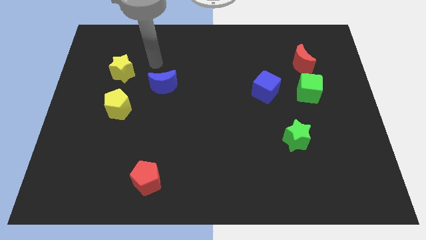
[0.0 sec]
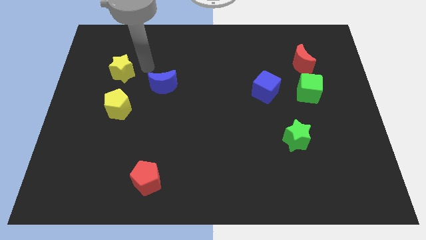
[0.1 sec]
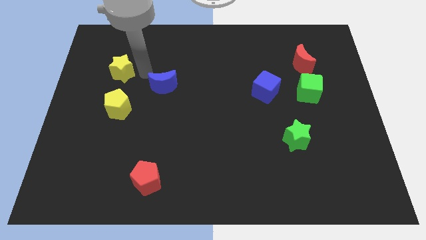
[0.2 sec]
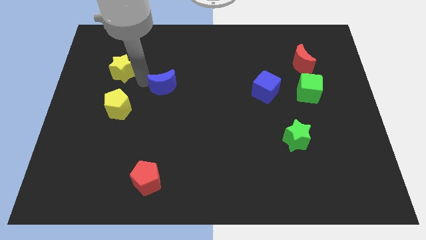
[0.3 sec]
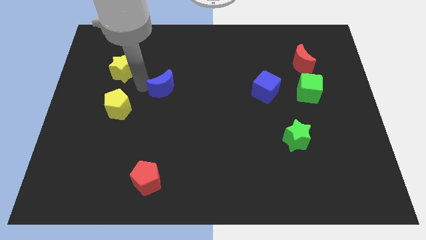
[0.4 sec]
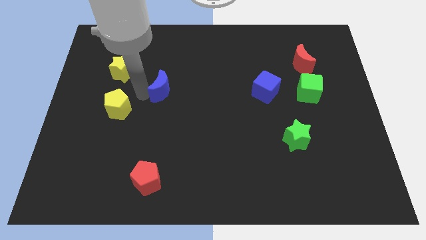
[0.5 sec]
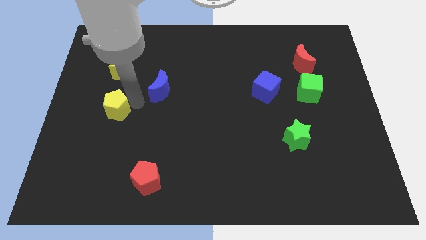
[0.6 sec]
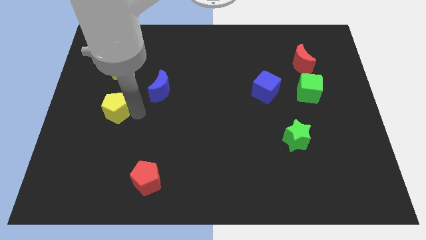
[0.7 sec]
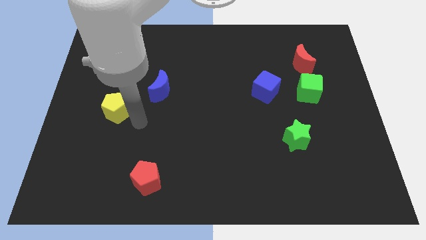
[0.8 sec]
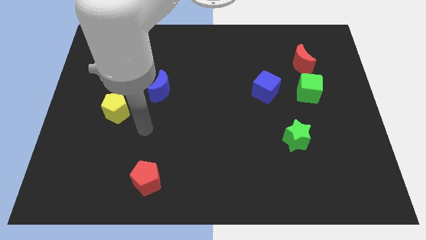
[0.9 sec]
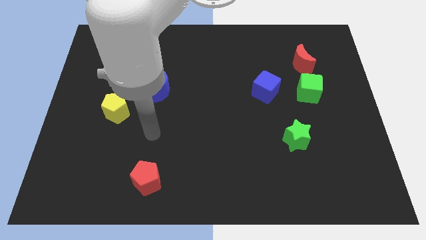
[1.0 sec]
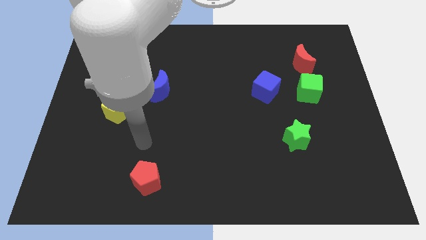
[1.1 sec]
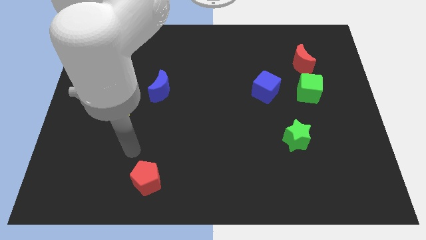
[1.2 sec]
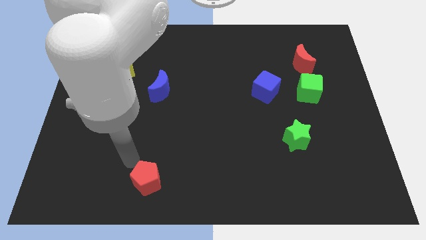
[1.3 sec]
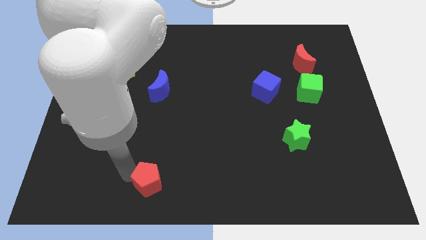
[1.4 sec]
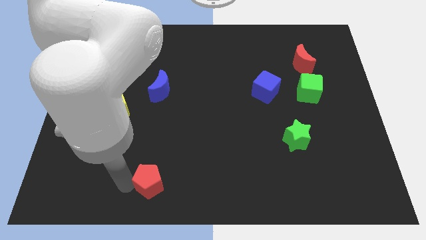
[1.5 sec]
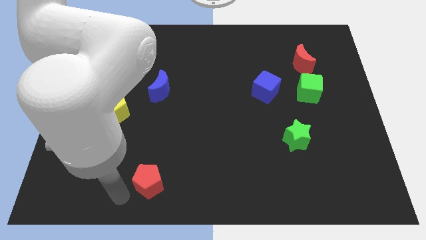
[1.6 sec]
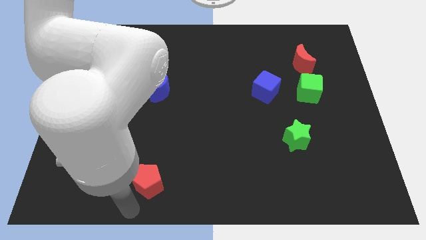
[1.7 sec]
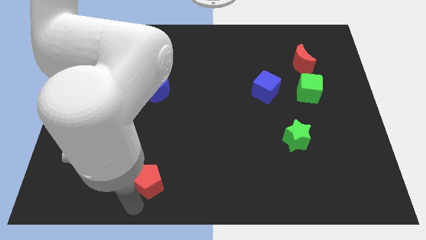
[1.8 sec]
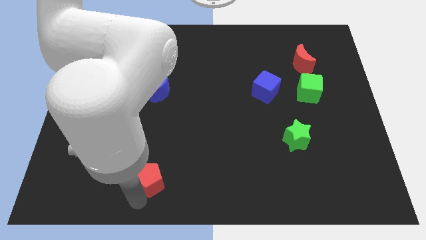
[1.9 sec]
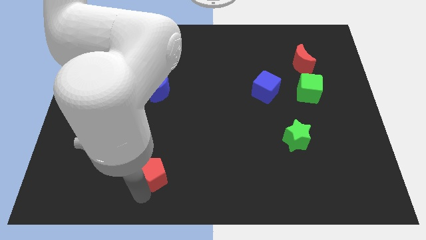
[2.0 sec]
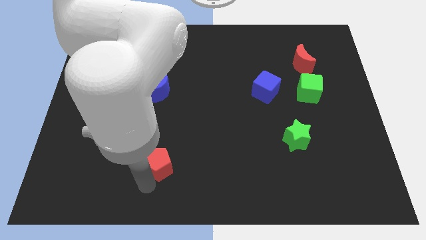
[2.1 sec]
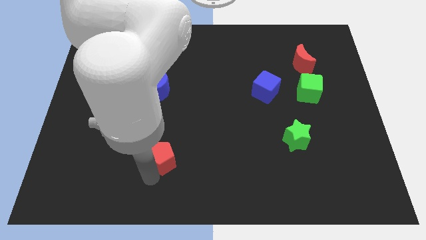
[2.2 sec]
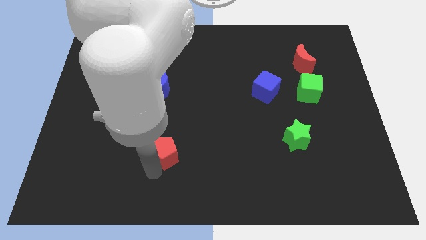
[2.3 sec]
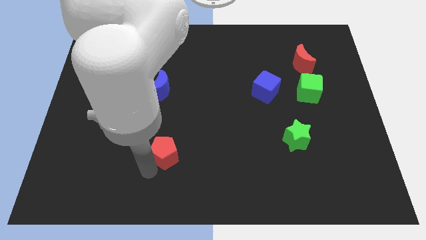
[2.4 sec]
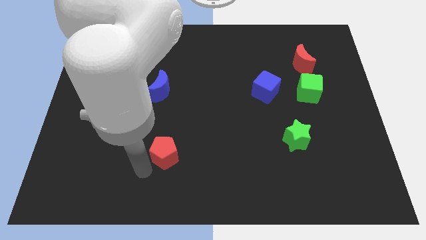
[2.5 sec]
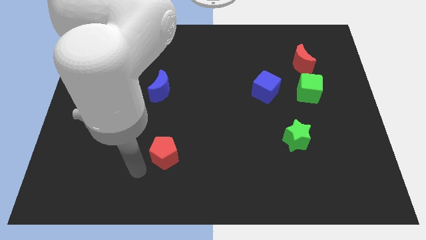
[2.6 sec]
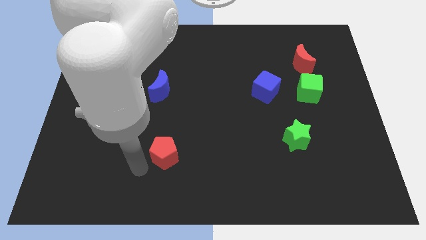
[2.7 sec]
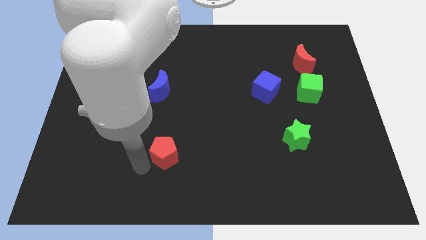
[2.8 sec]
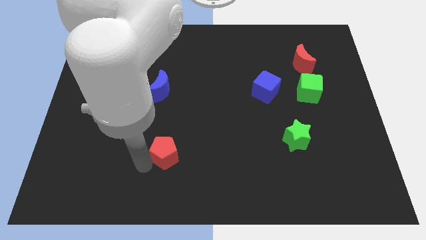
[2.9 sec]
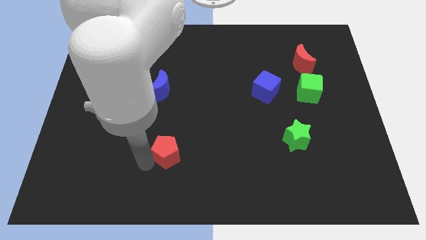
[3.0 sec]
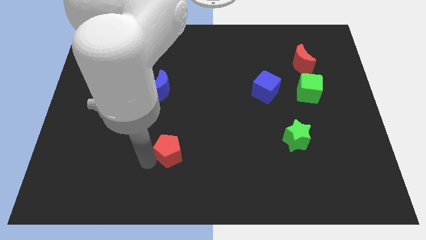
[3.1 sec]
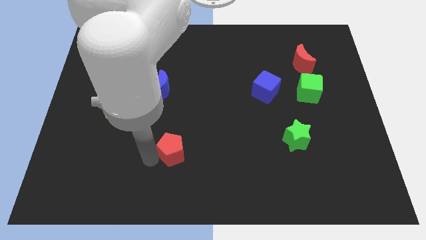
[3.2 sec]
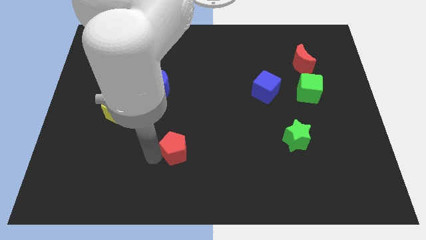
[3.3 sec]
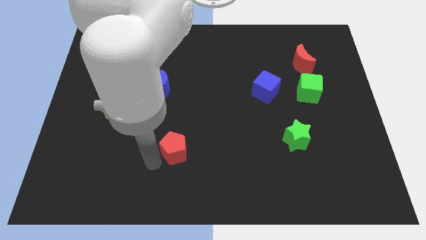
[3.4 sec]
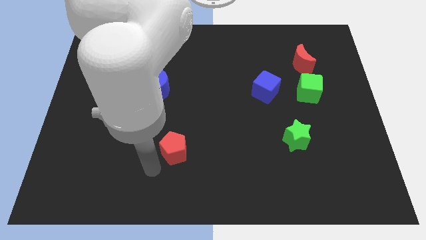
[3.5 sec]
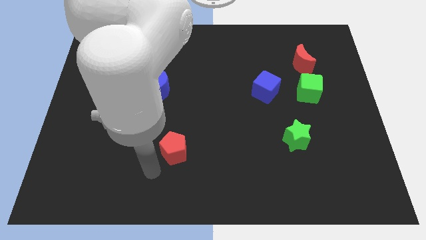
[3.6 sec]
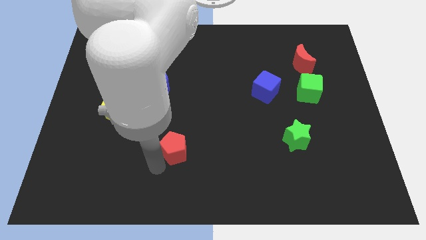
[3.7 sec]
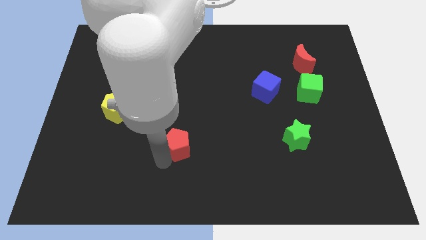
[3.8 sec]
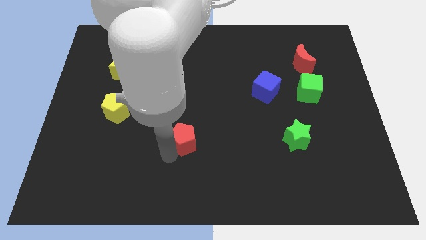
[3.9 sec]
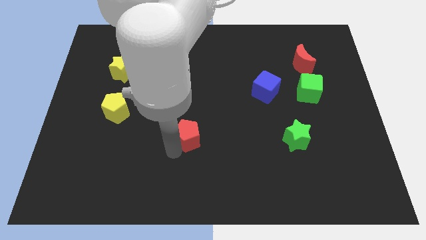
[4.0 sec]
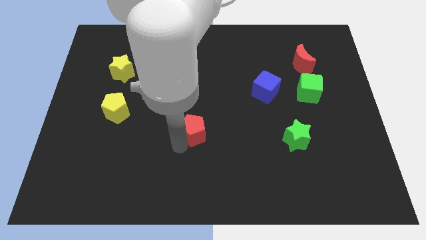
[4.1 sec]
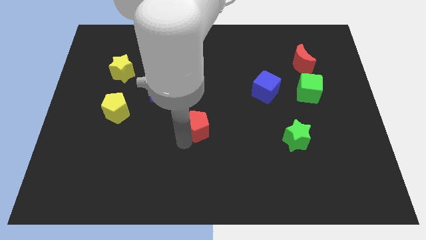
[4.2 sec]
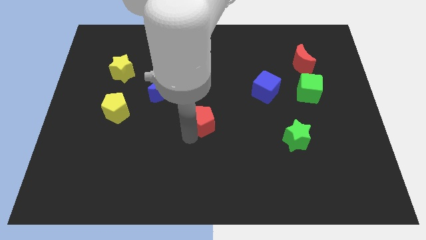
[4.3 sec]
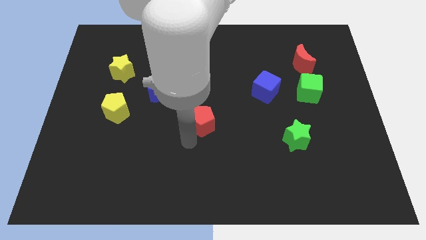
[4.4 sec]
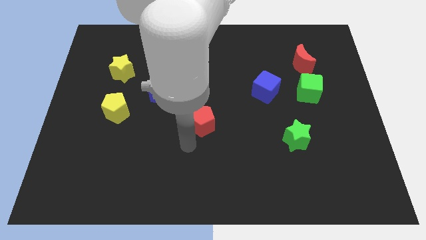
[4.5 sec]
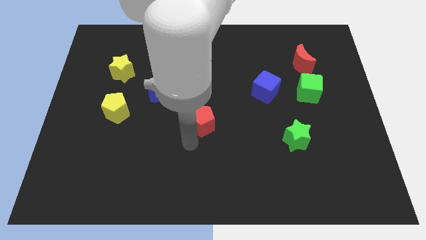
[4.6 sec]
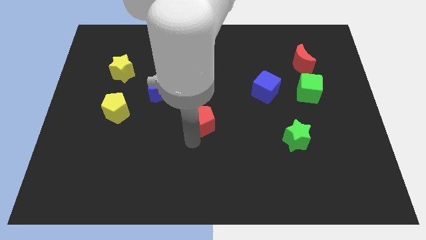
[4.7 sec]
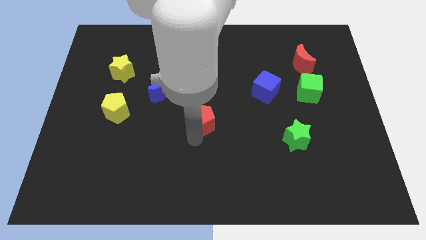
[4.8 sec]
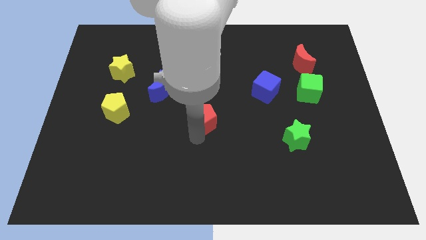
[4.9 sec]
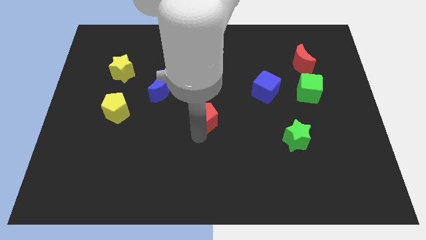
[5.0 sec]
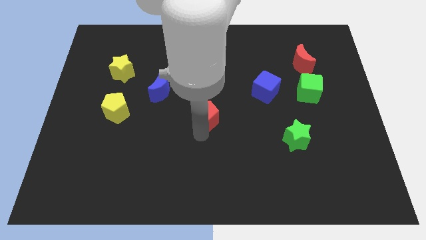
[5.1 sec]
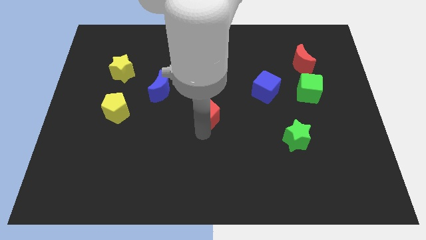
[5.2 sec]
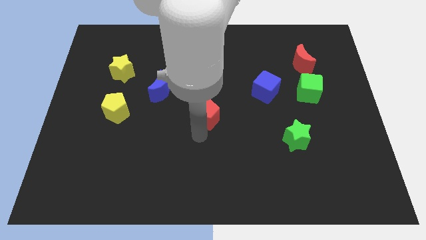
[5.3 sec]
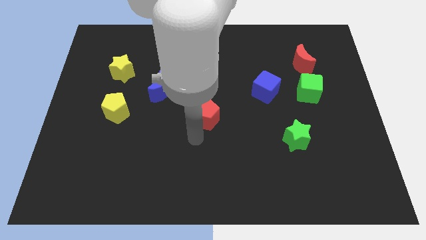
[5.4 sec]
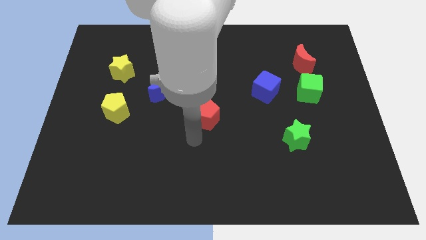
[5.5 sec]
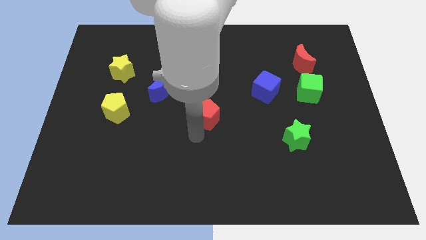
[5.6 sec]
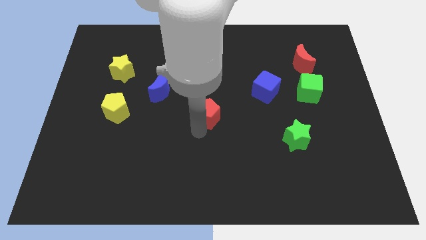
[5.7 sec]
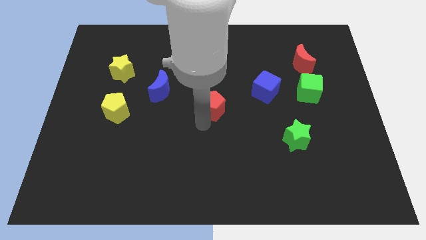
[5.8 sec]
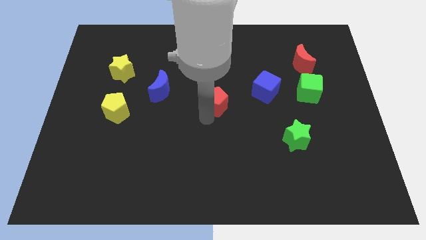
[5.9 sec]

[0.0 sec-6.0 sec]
put the red pentagon to the left of the blue cube
